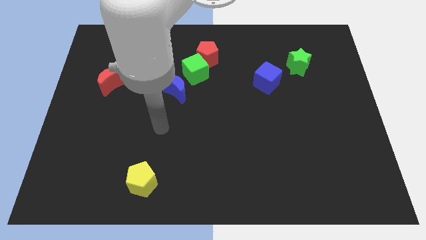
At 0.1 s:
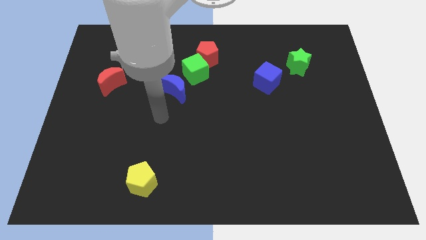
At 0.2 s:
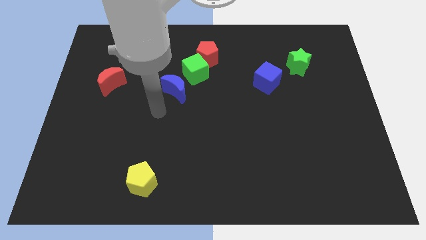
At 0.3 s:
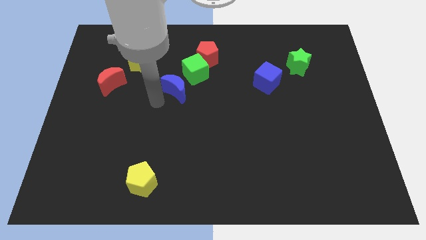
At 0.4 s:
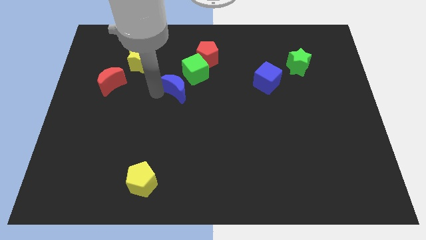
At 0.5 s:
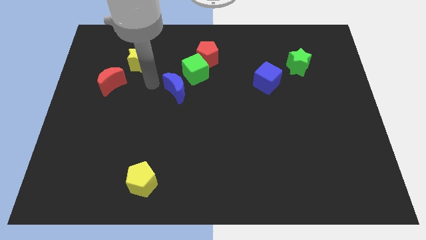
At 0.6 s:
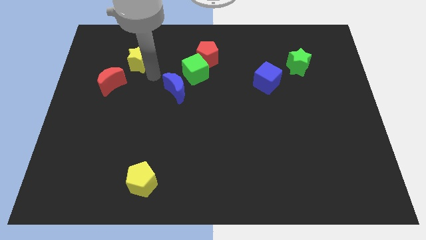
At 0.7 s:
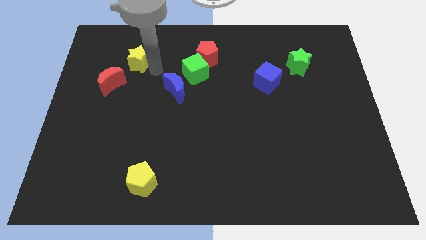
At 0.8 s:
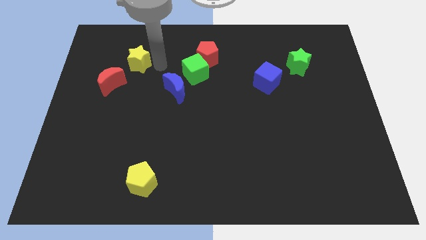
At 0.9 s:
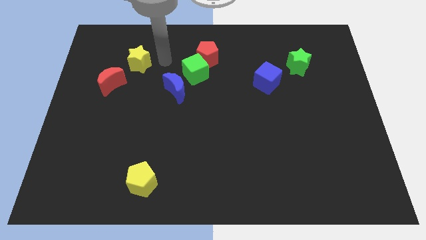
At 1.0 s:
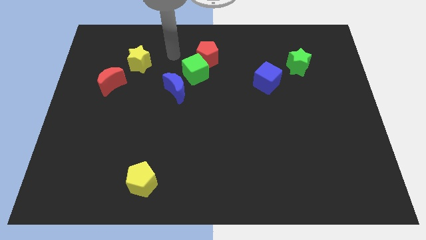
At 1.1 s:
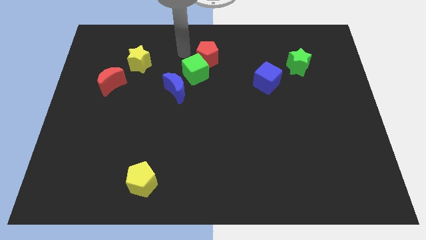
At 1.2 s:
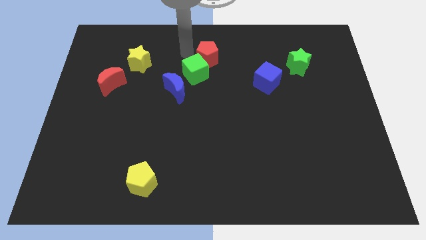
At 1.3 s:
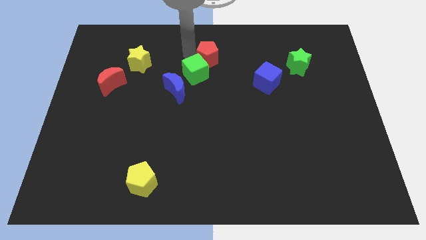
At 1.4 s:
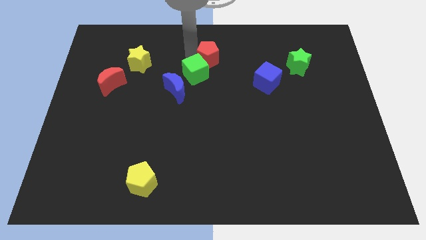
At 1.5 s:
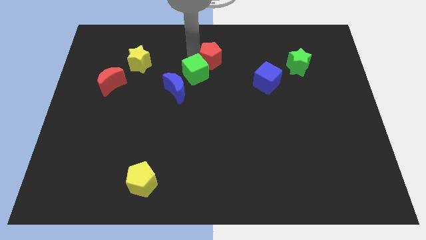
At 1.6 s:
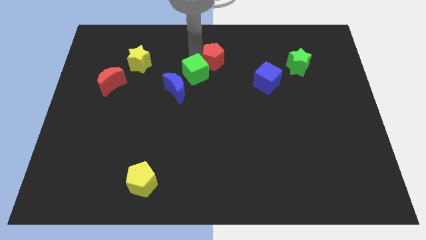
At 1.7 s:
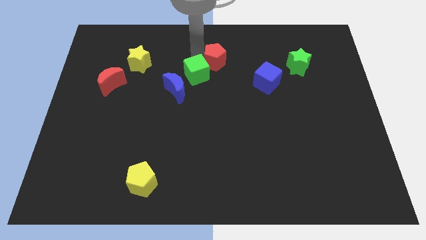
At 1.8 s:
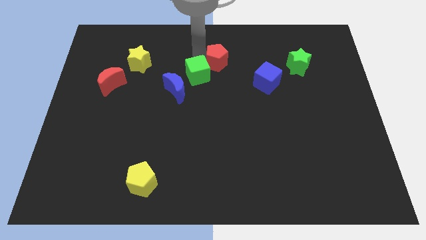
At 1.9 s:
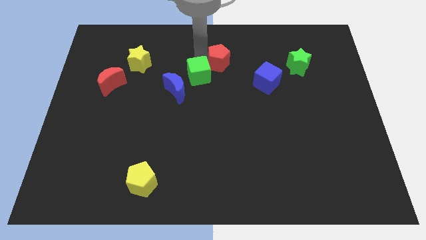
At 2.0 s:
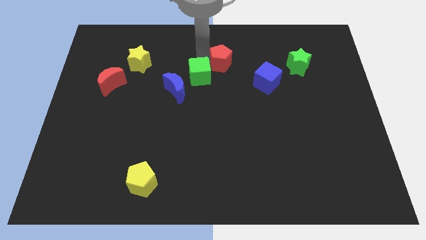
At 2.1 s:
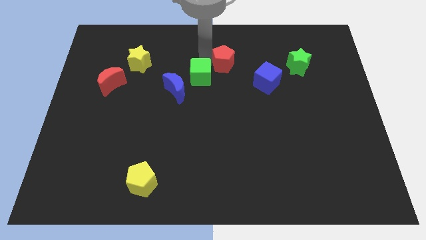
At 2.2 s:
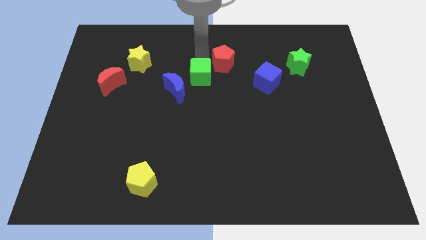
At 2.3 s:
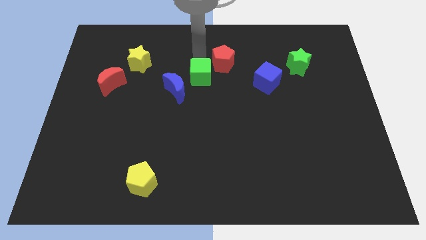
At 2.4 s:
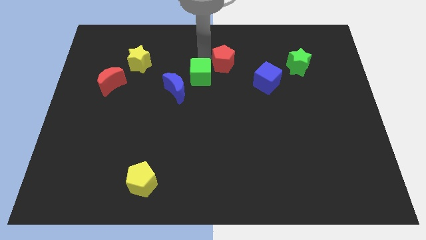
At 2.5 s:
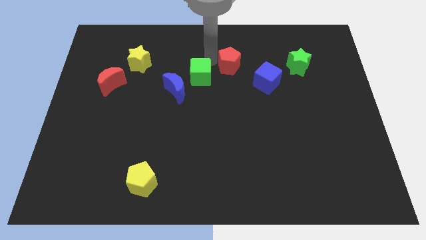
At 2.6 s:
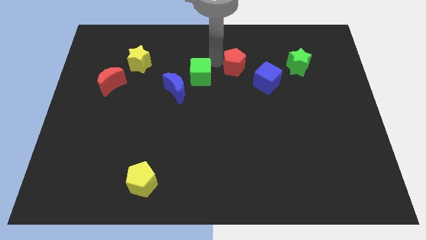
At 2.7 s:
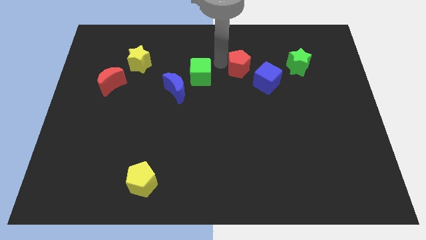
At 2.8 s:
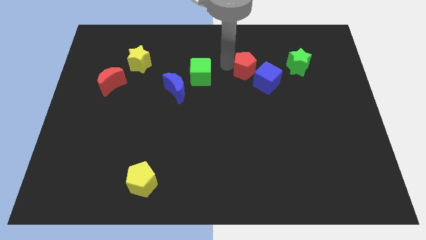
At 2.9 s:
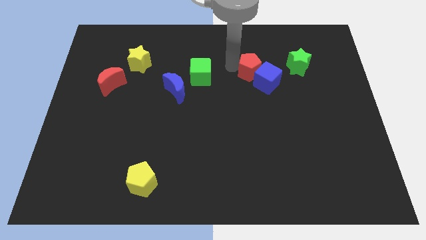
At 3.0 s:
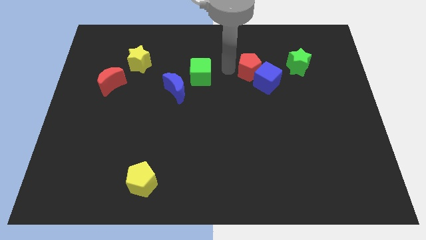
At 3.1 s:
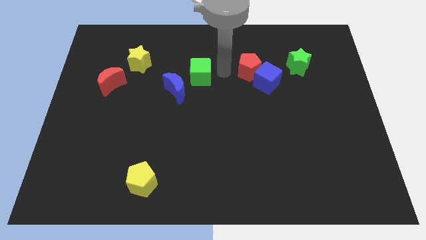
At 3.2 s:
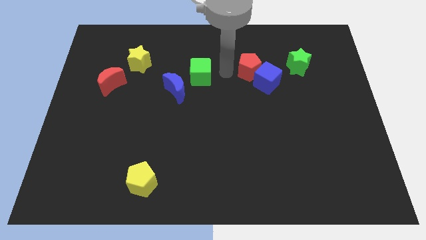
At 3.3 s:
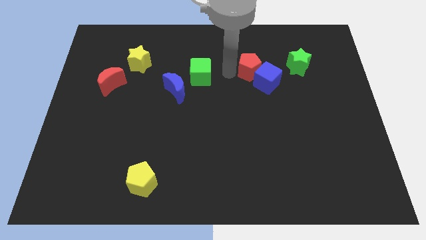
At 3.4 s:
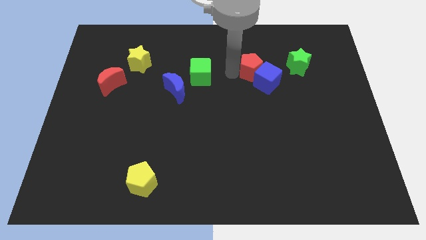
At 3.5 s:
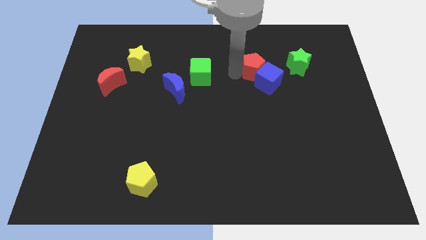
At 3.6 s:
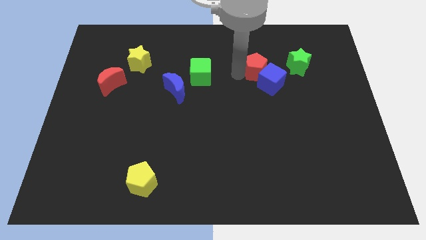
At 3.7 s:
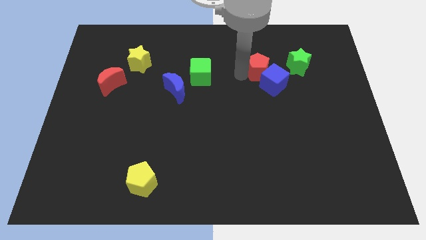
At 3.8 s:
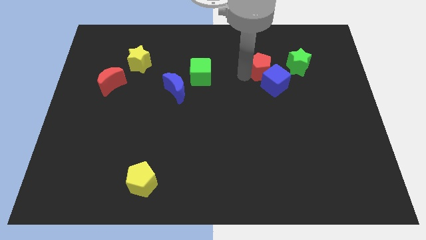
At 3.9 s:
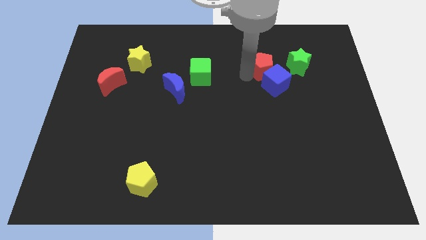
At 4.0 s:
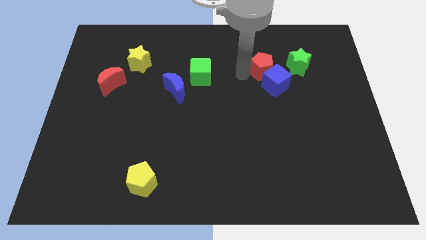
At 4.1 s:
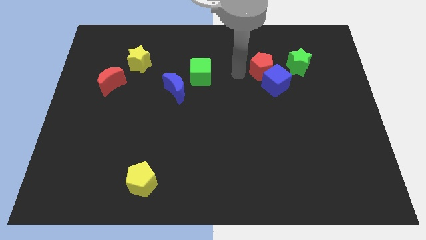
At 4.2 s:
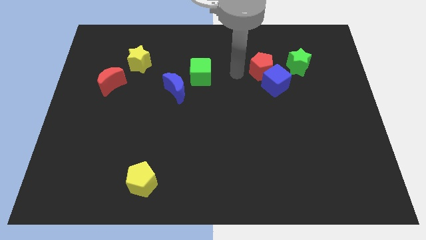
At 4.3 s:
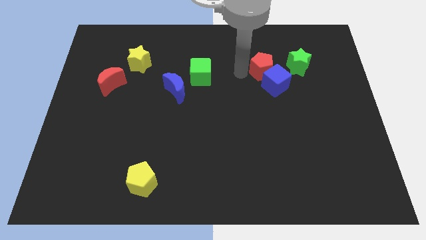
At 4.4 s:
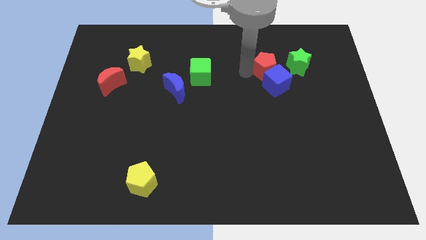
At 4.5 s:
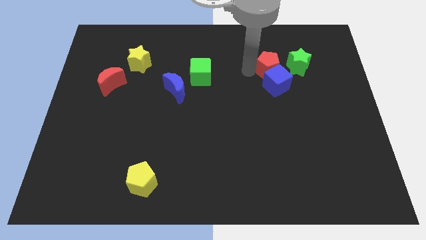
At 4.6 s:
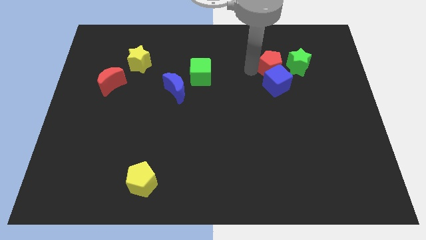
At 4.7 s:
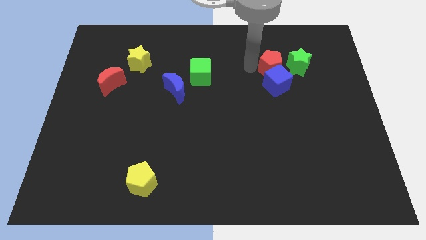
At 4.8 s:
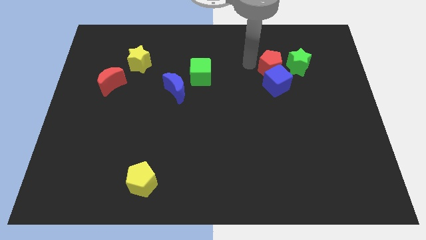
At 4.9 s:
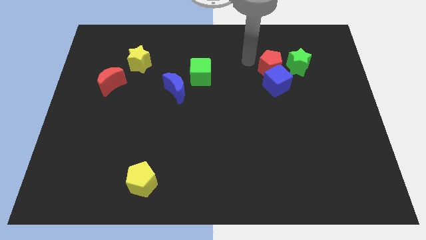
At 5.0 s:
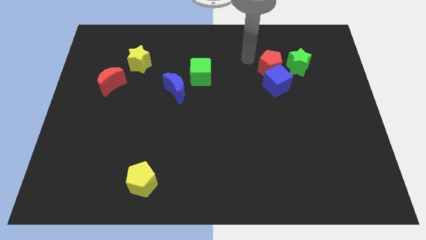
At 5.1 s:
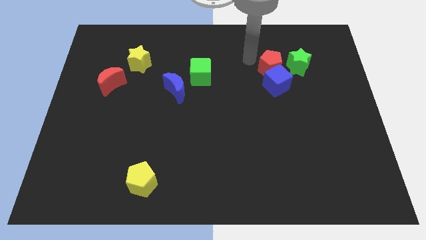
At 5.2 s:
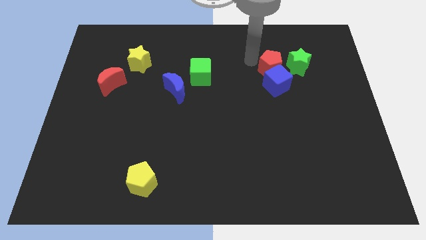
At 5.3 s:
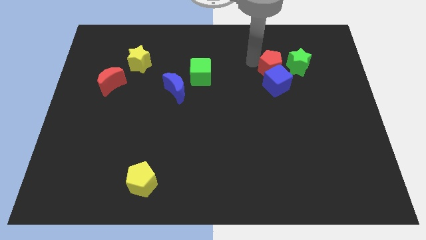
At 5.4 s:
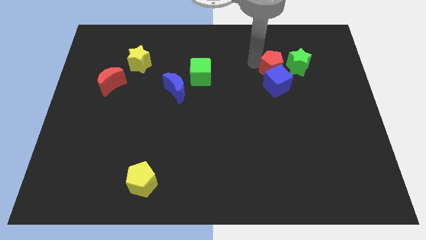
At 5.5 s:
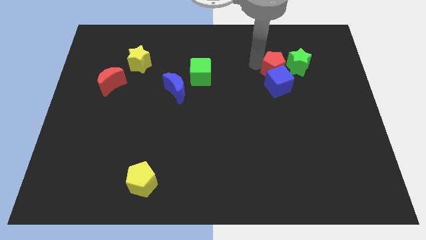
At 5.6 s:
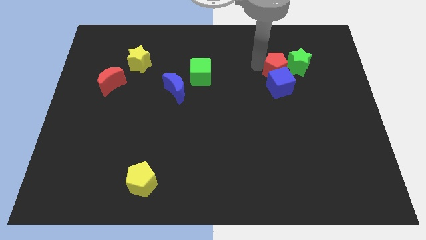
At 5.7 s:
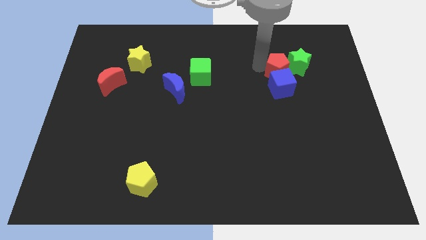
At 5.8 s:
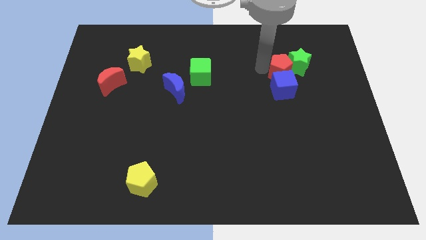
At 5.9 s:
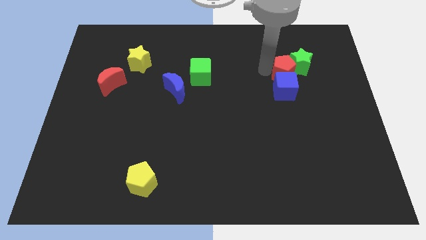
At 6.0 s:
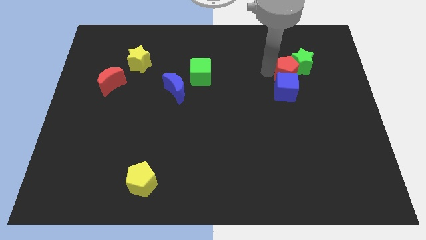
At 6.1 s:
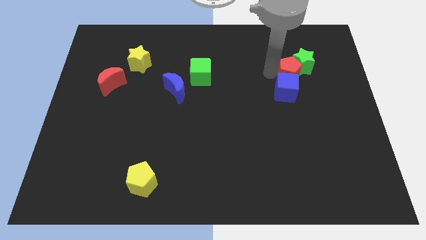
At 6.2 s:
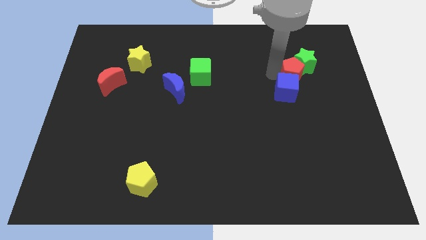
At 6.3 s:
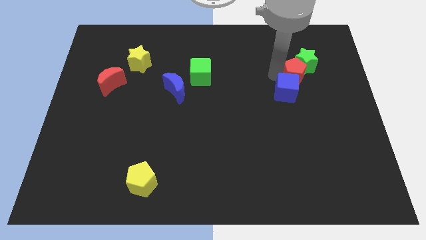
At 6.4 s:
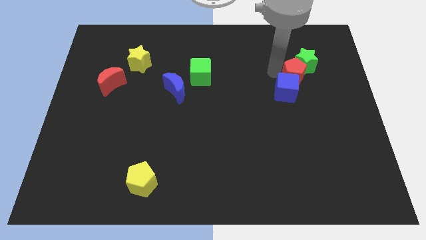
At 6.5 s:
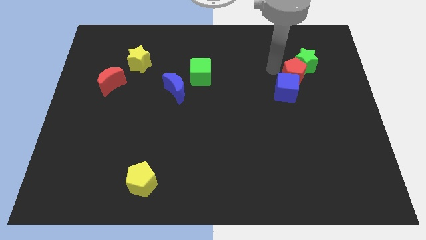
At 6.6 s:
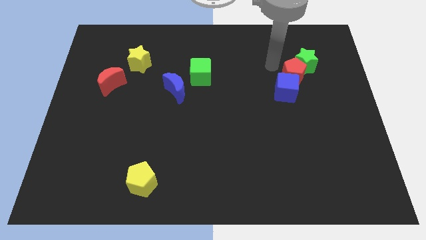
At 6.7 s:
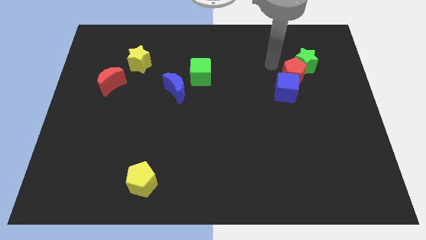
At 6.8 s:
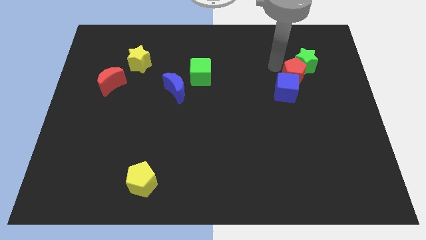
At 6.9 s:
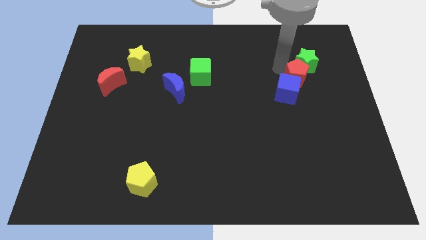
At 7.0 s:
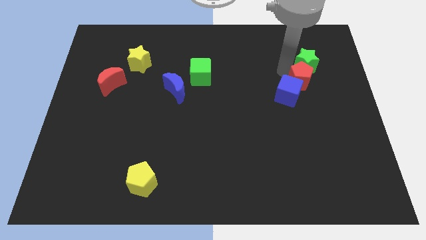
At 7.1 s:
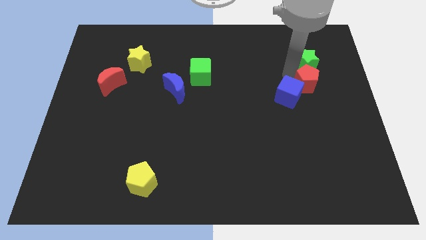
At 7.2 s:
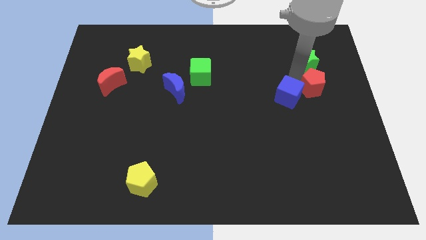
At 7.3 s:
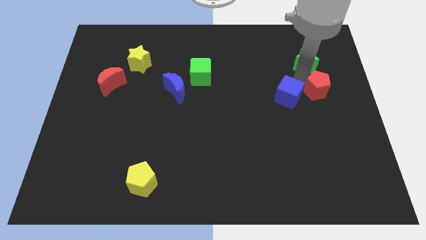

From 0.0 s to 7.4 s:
move the red pentagon to the center right
